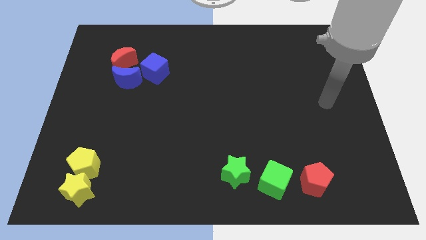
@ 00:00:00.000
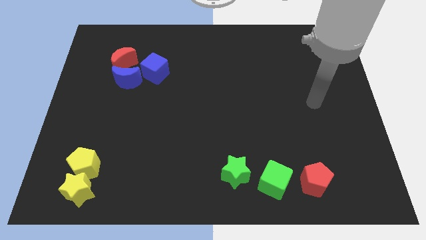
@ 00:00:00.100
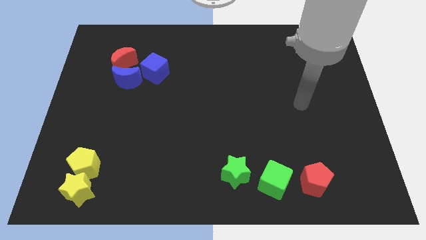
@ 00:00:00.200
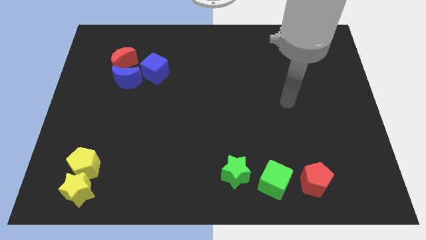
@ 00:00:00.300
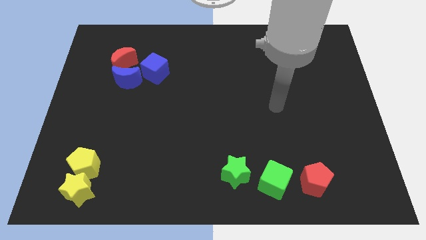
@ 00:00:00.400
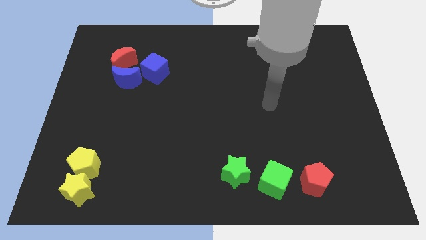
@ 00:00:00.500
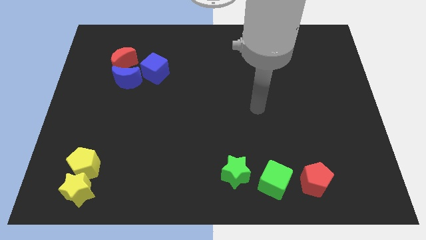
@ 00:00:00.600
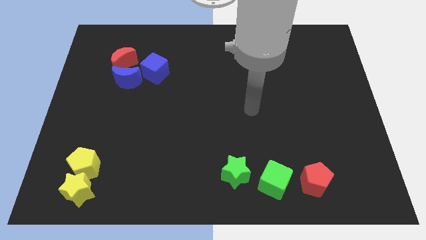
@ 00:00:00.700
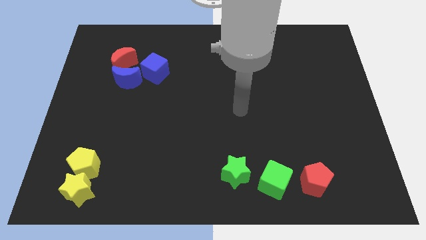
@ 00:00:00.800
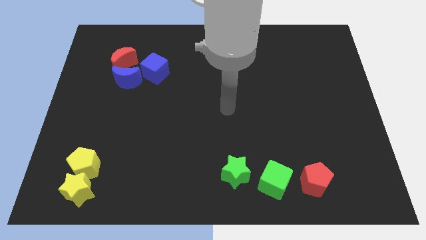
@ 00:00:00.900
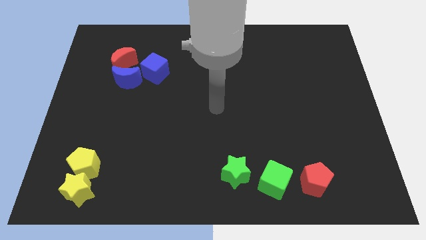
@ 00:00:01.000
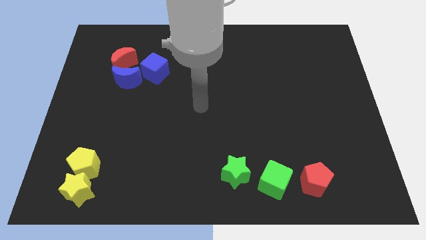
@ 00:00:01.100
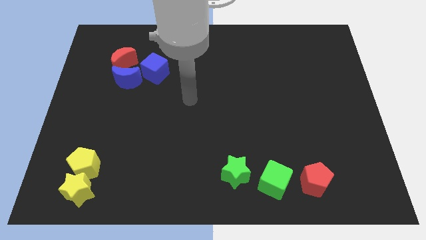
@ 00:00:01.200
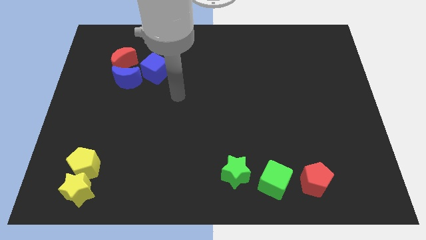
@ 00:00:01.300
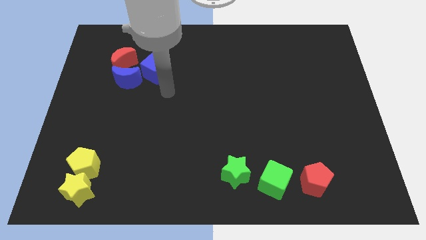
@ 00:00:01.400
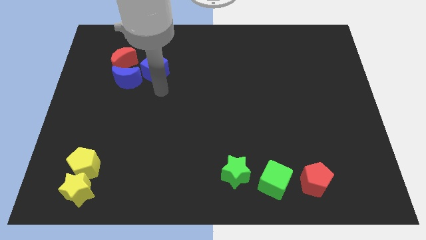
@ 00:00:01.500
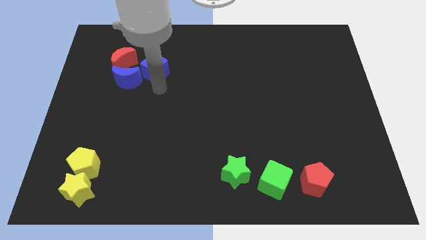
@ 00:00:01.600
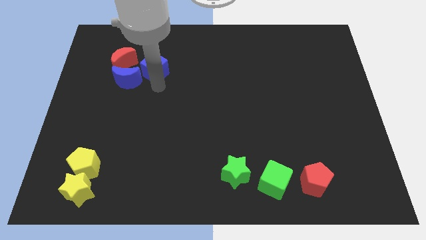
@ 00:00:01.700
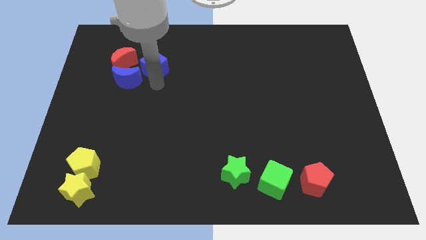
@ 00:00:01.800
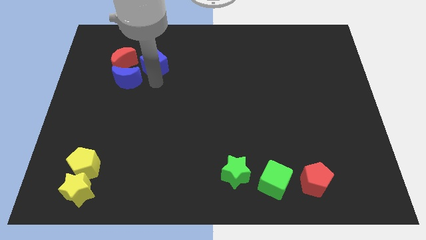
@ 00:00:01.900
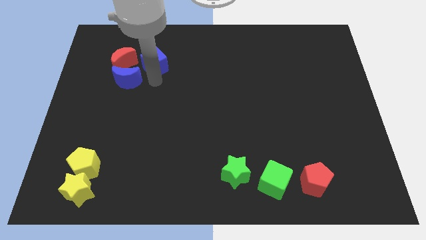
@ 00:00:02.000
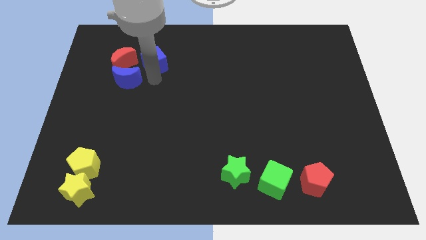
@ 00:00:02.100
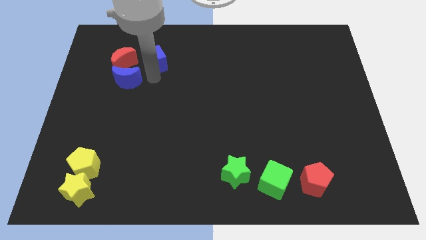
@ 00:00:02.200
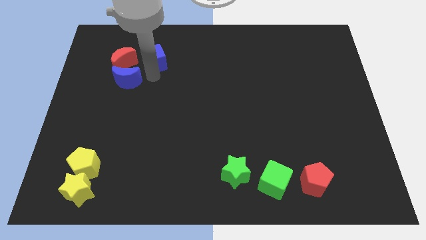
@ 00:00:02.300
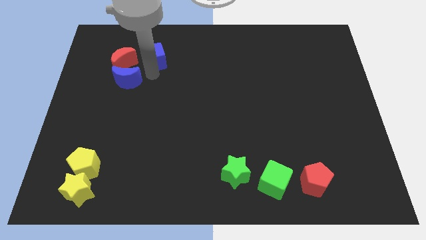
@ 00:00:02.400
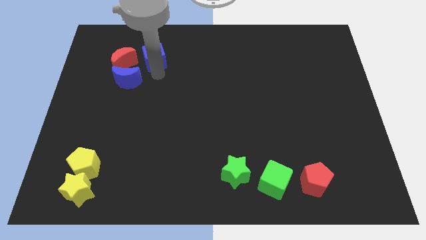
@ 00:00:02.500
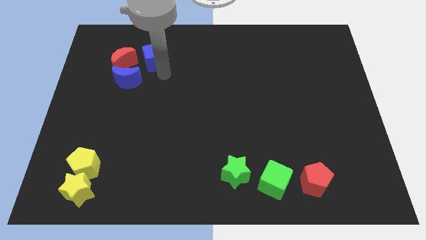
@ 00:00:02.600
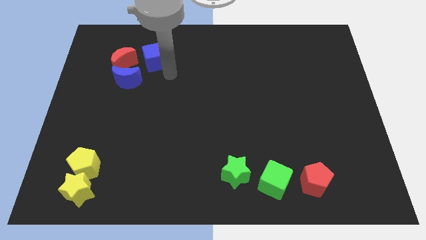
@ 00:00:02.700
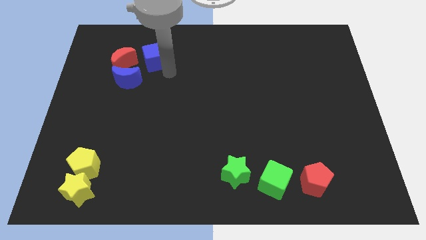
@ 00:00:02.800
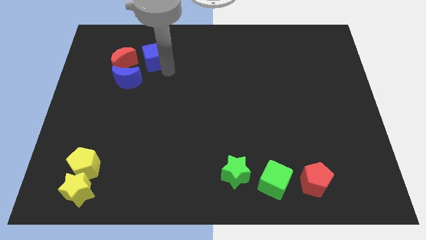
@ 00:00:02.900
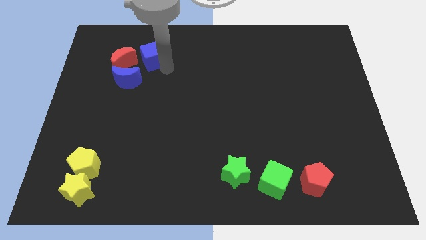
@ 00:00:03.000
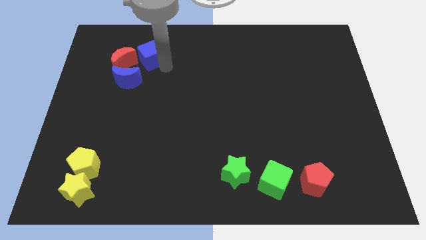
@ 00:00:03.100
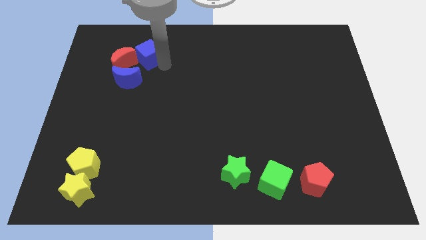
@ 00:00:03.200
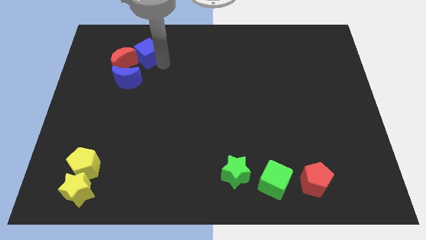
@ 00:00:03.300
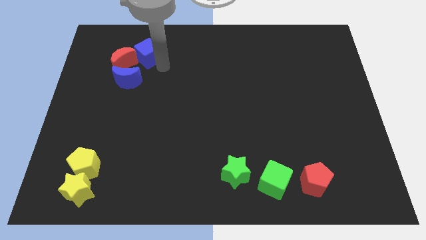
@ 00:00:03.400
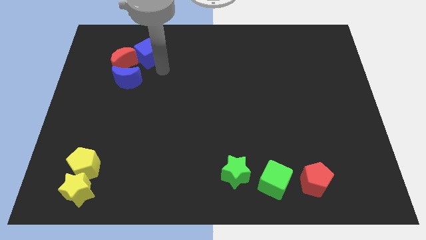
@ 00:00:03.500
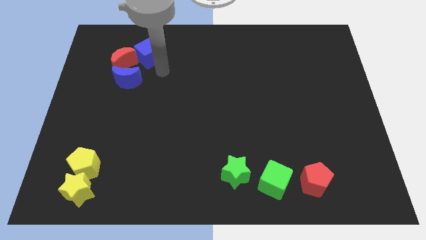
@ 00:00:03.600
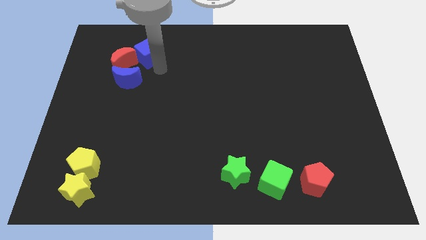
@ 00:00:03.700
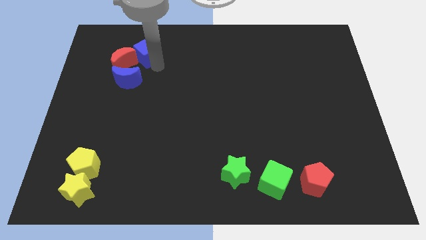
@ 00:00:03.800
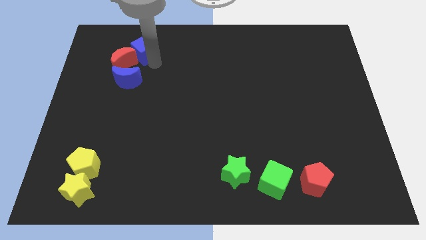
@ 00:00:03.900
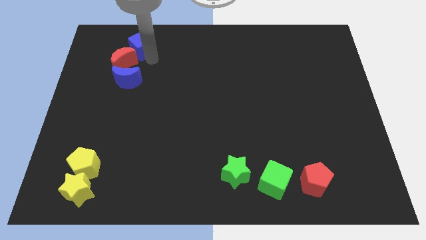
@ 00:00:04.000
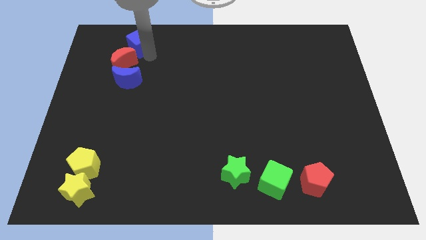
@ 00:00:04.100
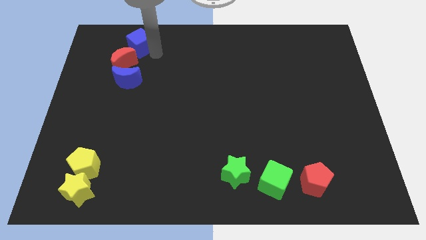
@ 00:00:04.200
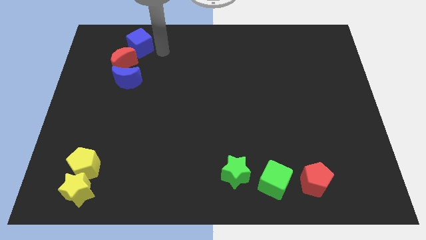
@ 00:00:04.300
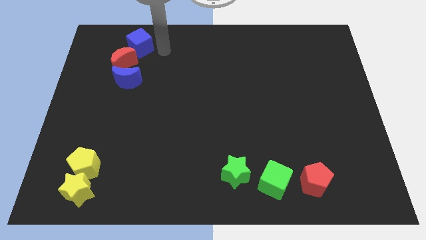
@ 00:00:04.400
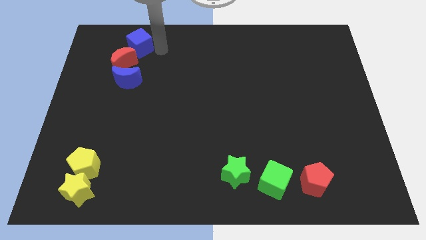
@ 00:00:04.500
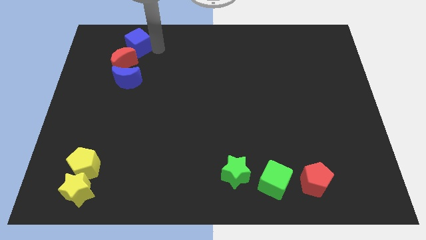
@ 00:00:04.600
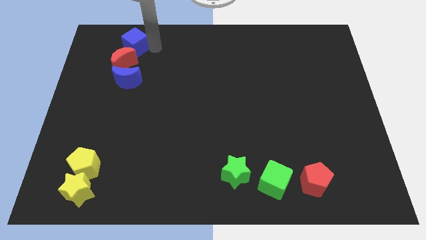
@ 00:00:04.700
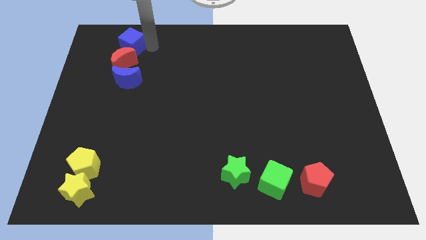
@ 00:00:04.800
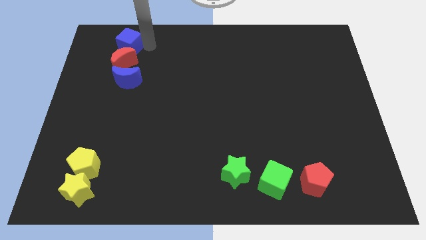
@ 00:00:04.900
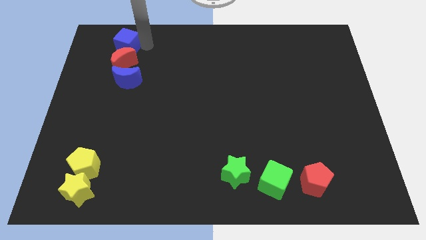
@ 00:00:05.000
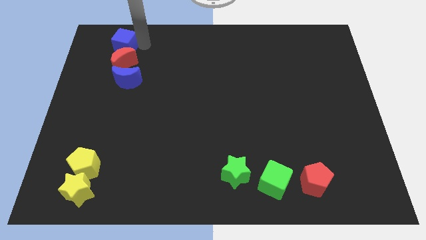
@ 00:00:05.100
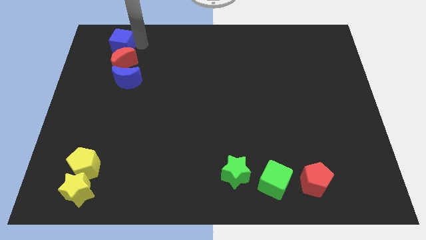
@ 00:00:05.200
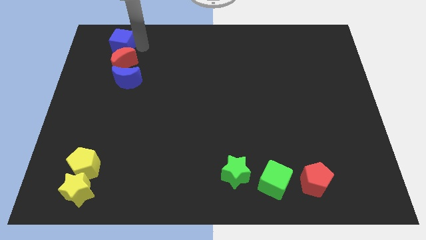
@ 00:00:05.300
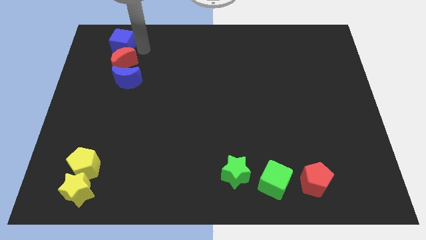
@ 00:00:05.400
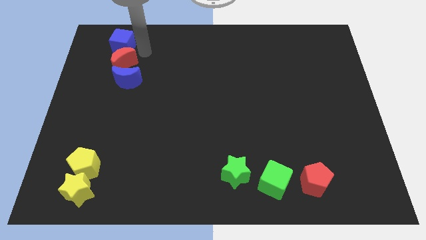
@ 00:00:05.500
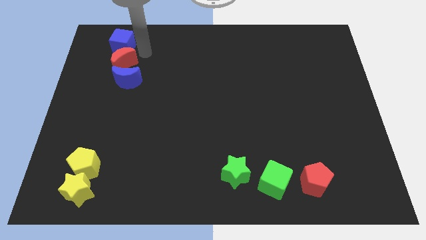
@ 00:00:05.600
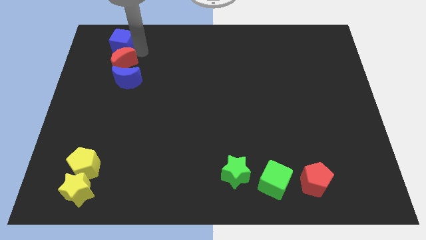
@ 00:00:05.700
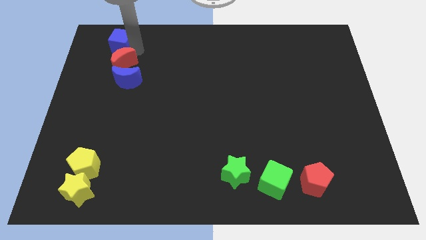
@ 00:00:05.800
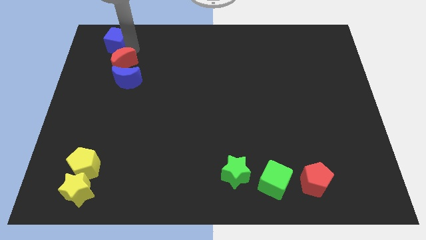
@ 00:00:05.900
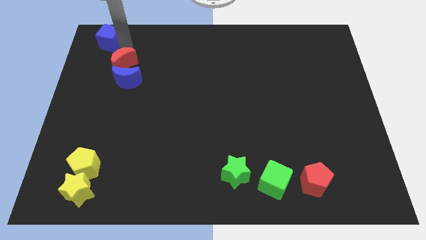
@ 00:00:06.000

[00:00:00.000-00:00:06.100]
move the blue cube to the upper left corner

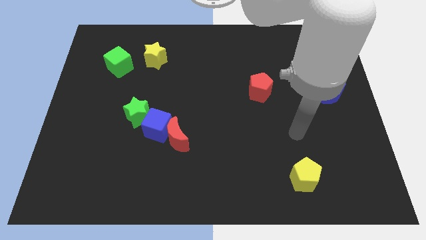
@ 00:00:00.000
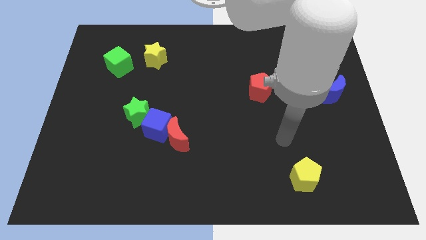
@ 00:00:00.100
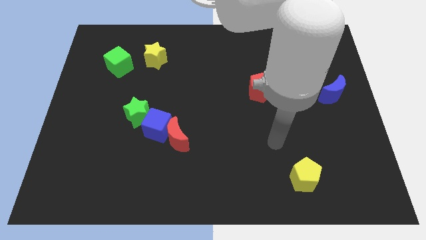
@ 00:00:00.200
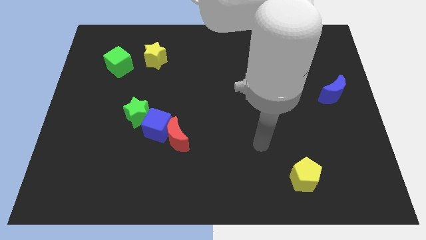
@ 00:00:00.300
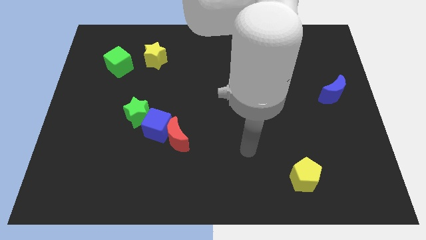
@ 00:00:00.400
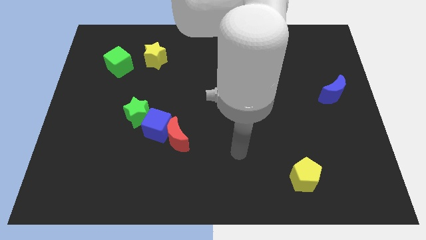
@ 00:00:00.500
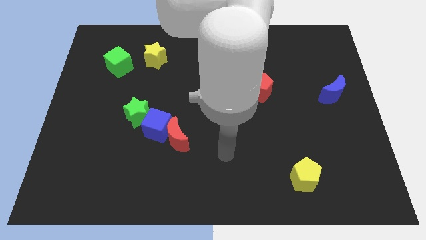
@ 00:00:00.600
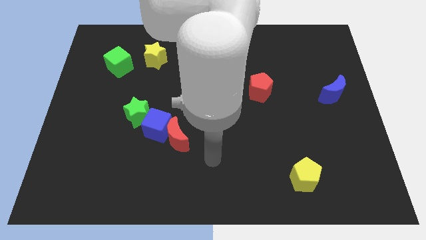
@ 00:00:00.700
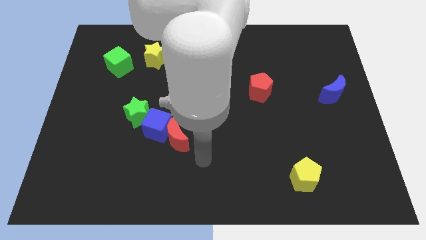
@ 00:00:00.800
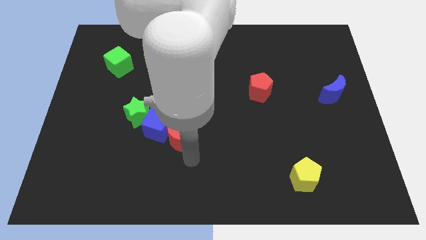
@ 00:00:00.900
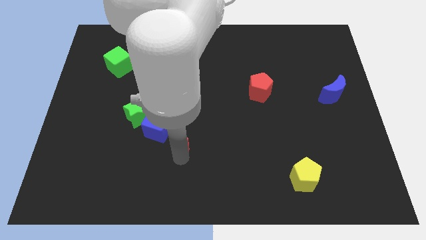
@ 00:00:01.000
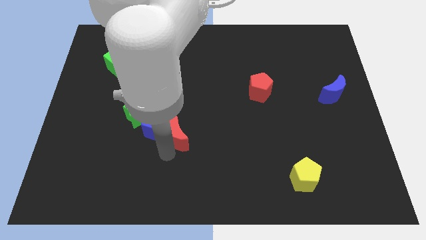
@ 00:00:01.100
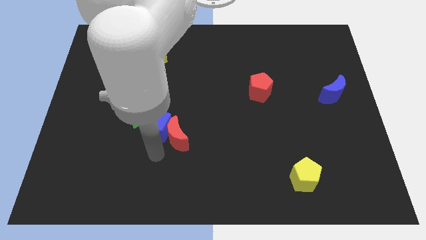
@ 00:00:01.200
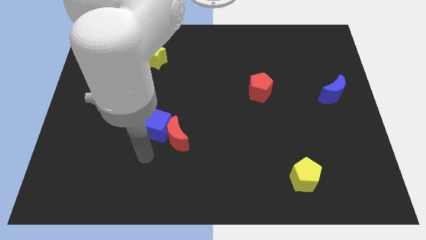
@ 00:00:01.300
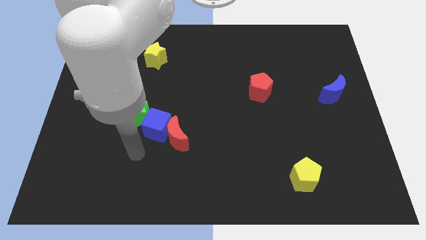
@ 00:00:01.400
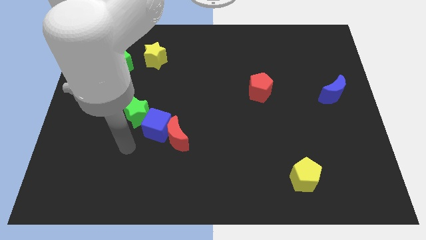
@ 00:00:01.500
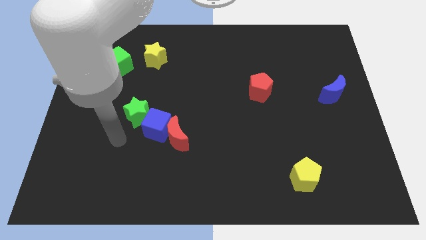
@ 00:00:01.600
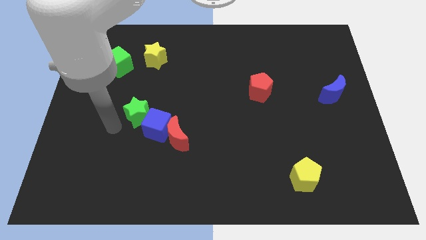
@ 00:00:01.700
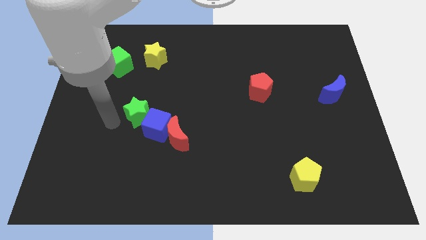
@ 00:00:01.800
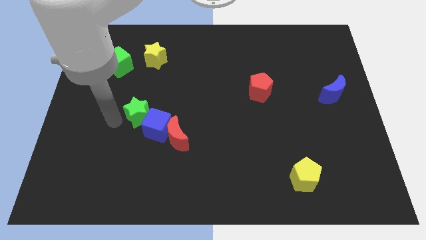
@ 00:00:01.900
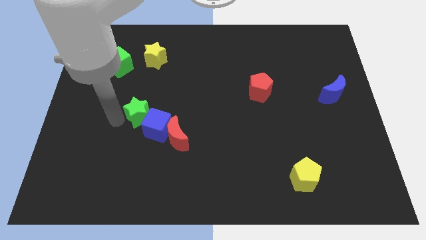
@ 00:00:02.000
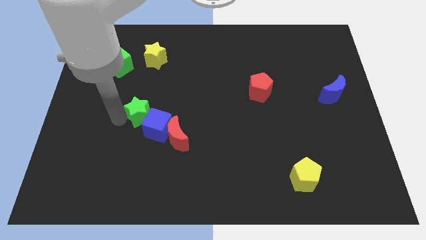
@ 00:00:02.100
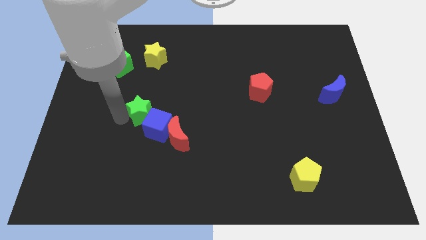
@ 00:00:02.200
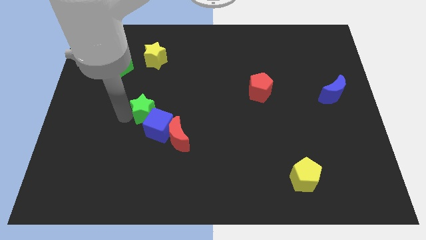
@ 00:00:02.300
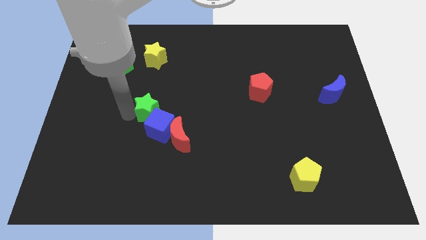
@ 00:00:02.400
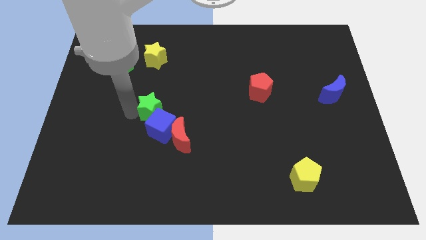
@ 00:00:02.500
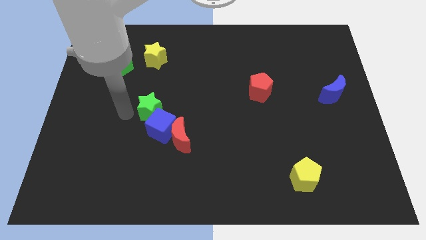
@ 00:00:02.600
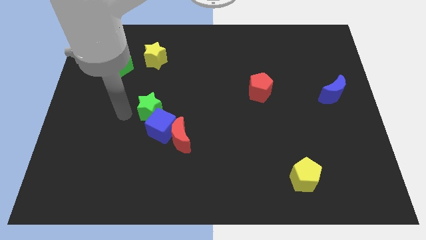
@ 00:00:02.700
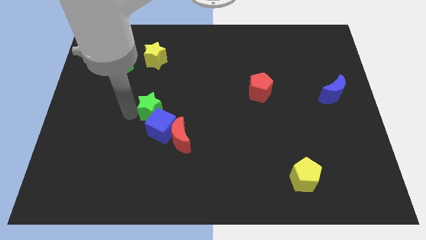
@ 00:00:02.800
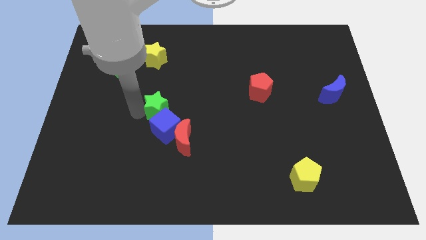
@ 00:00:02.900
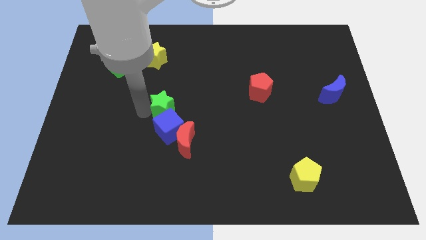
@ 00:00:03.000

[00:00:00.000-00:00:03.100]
slide the green star to the middle of the board
